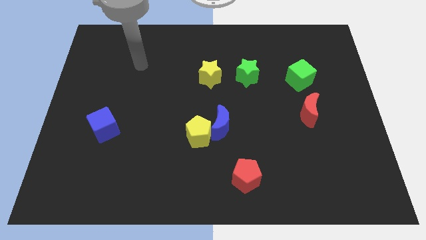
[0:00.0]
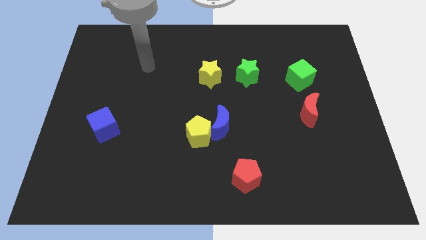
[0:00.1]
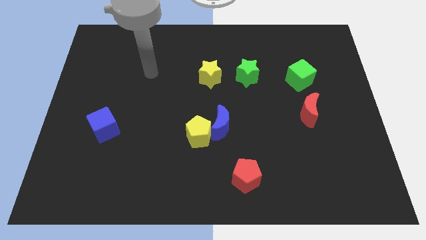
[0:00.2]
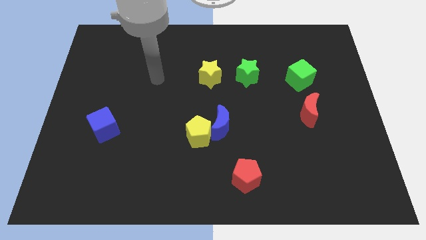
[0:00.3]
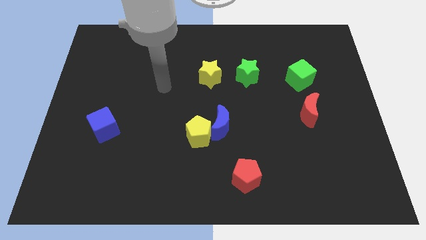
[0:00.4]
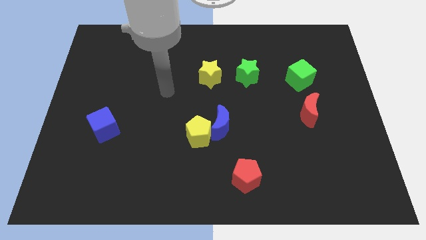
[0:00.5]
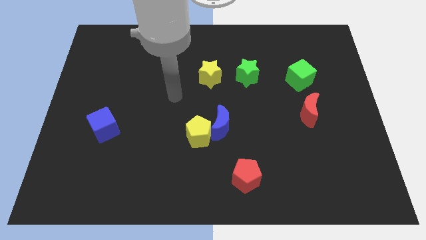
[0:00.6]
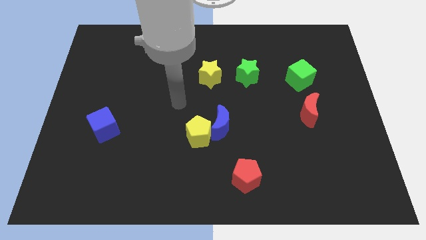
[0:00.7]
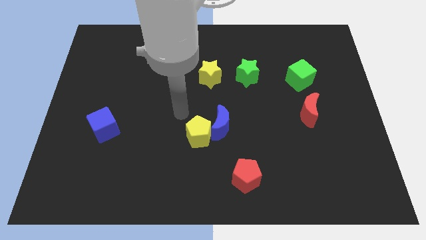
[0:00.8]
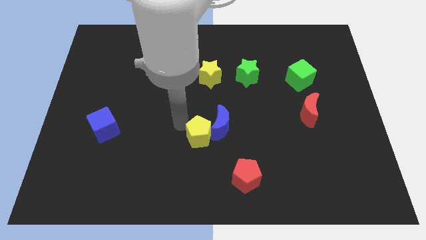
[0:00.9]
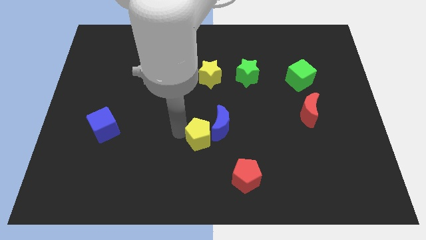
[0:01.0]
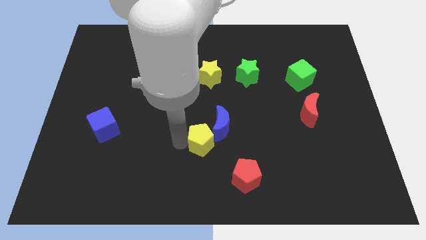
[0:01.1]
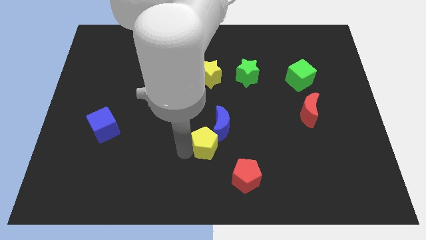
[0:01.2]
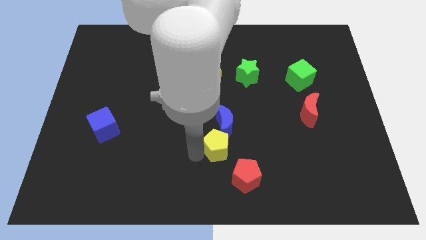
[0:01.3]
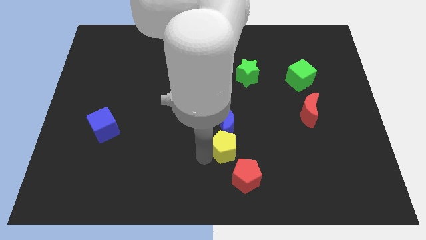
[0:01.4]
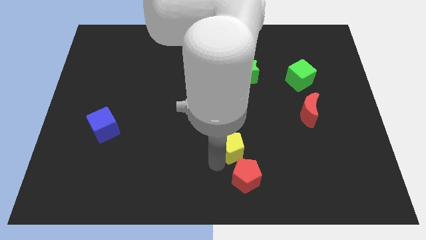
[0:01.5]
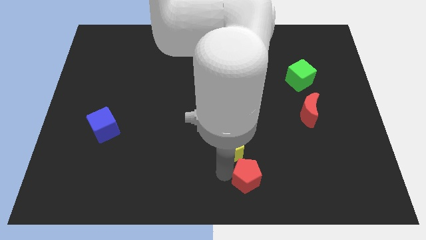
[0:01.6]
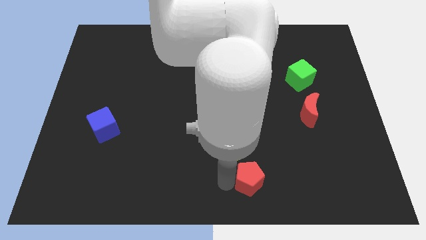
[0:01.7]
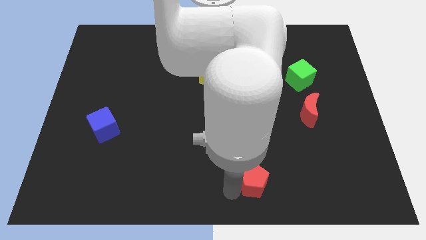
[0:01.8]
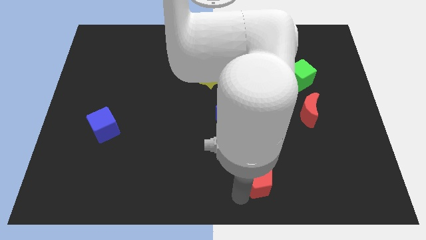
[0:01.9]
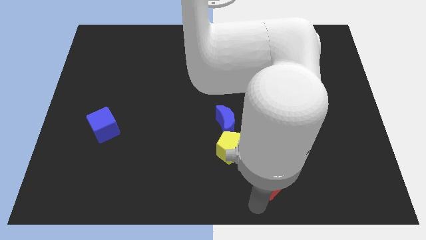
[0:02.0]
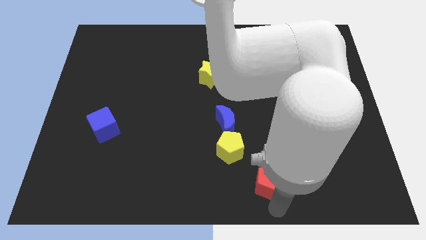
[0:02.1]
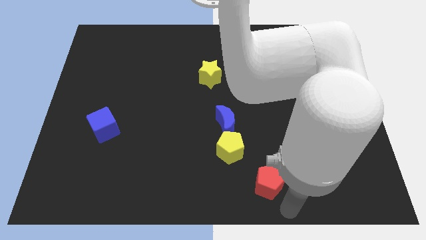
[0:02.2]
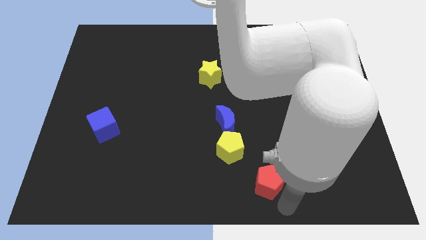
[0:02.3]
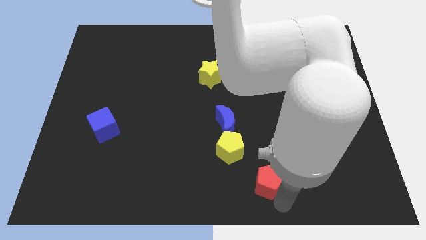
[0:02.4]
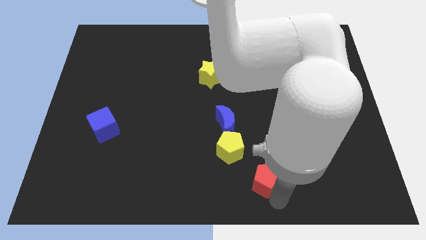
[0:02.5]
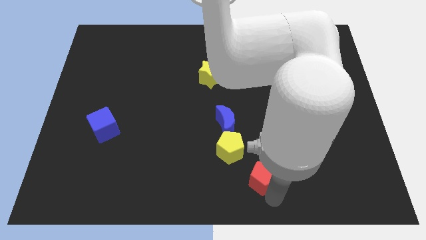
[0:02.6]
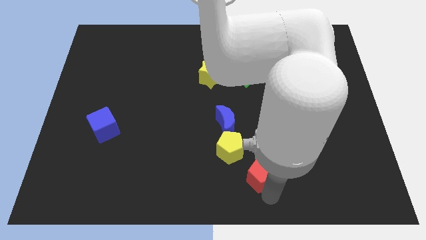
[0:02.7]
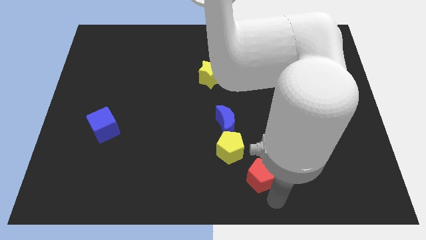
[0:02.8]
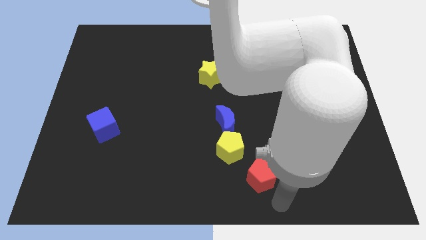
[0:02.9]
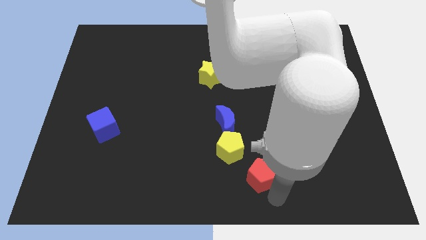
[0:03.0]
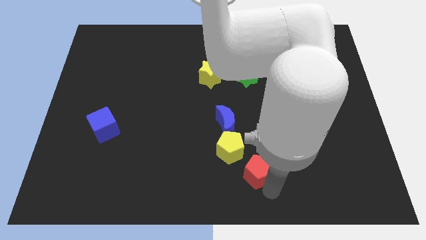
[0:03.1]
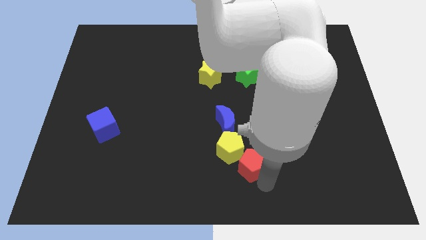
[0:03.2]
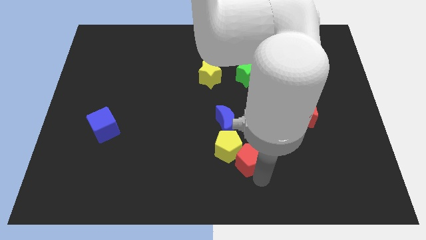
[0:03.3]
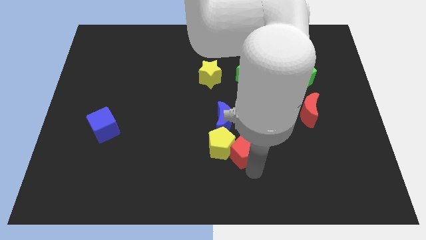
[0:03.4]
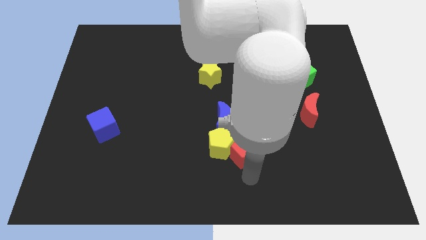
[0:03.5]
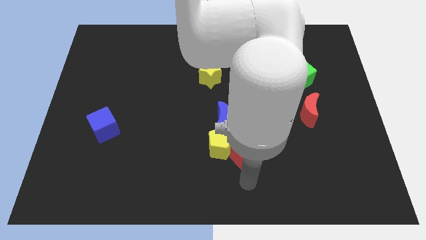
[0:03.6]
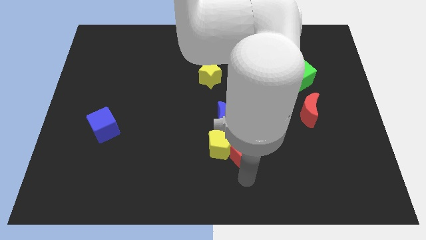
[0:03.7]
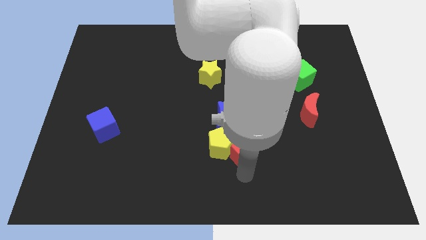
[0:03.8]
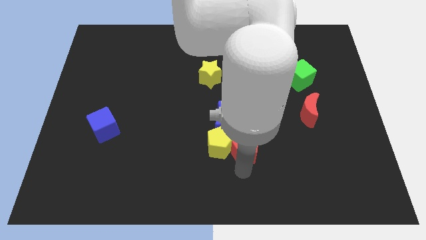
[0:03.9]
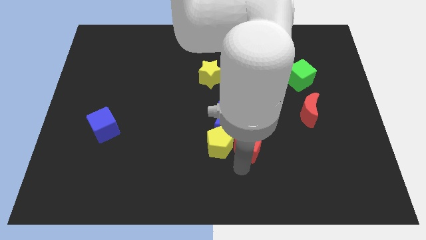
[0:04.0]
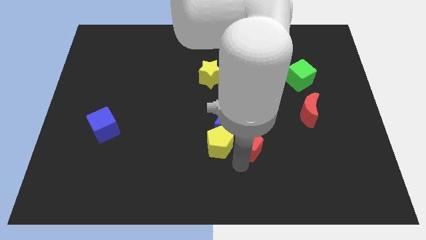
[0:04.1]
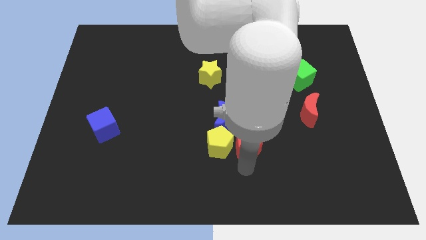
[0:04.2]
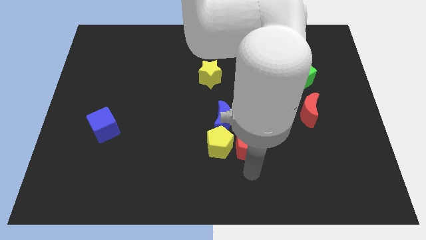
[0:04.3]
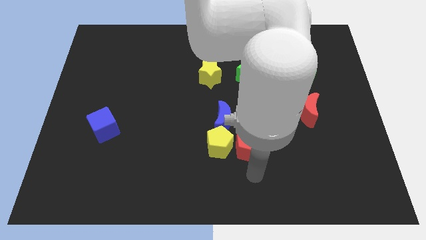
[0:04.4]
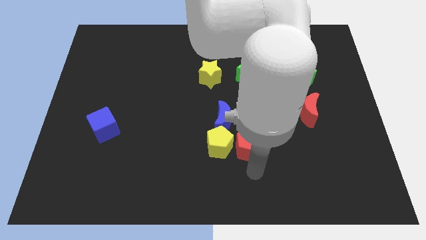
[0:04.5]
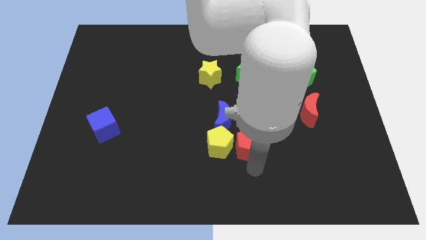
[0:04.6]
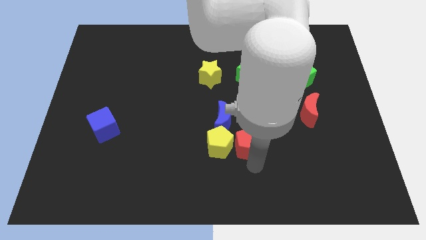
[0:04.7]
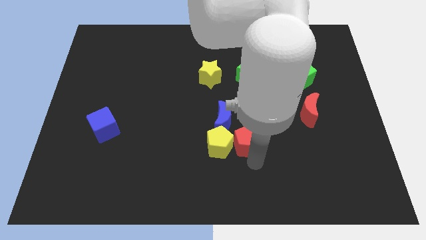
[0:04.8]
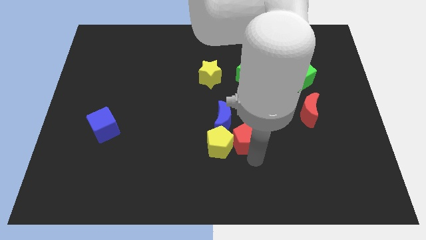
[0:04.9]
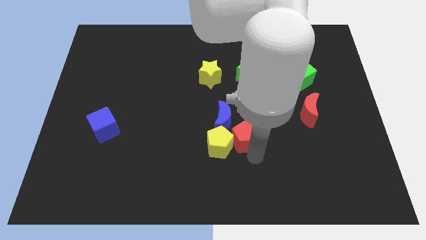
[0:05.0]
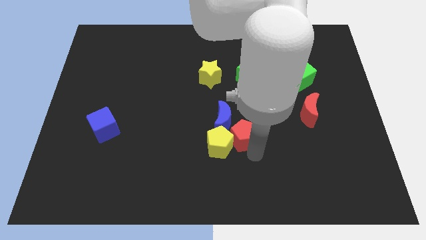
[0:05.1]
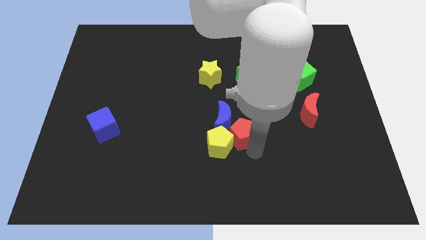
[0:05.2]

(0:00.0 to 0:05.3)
slide the red pentagon to the center of the board

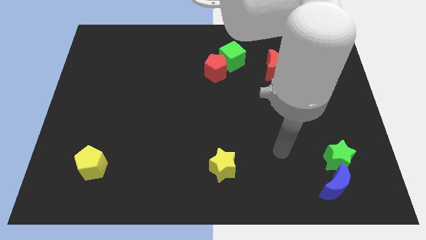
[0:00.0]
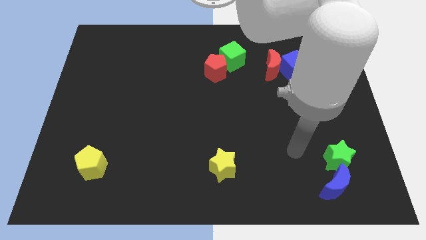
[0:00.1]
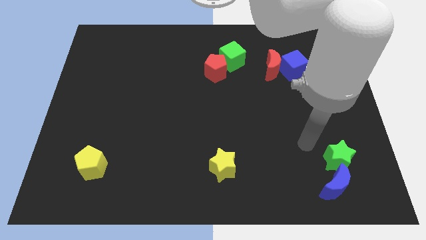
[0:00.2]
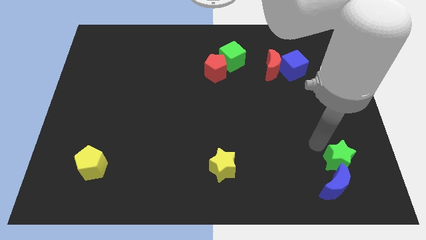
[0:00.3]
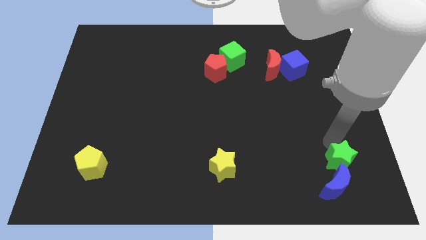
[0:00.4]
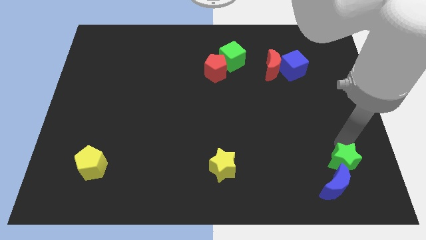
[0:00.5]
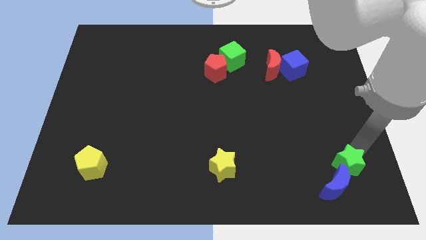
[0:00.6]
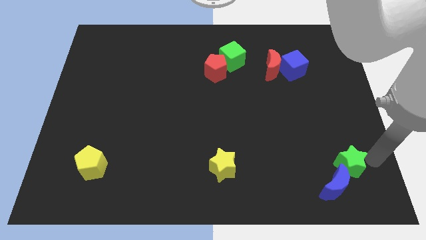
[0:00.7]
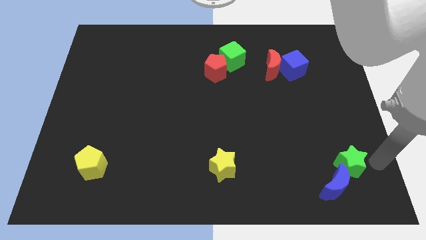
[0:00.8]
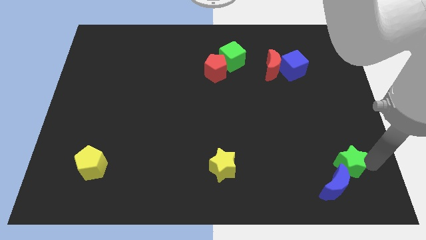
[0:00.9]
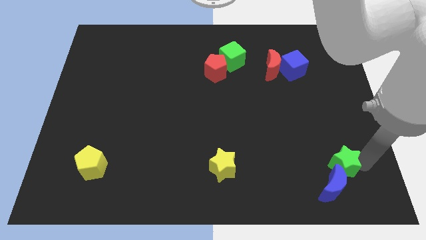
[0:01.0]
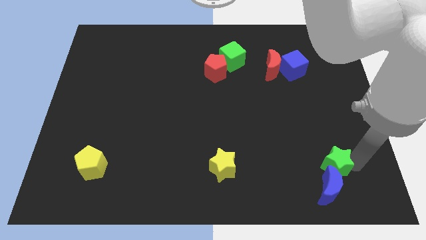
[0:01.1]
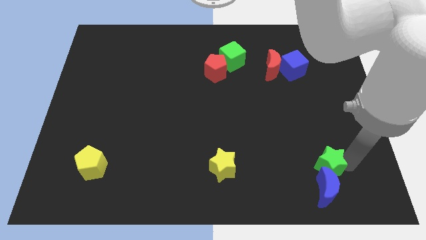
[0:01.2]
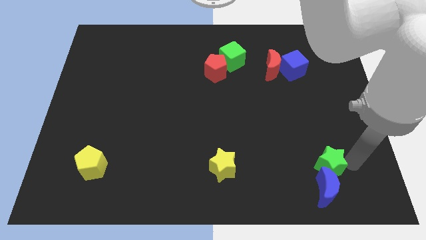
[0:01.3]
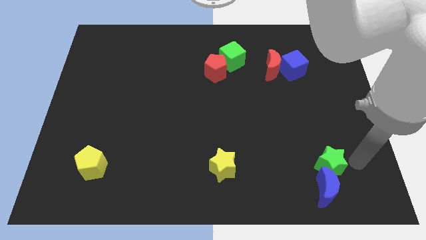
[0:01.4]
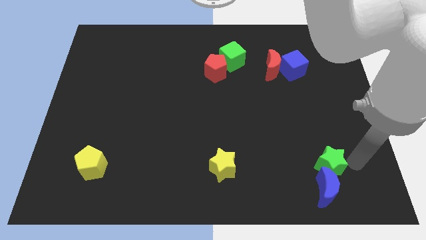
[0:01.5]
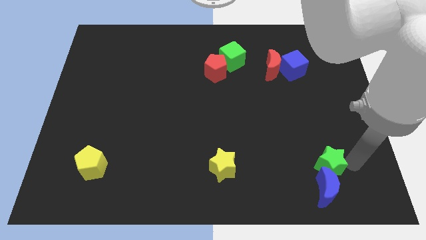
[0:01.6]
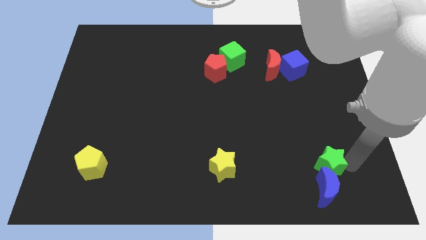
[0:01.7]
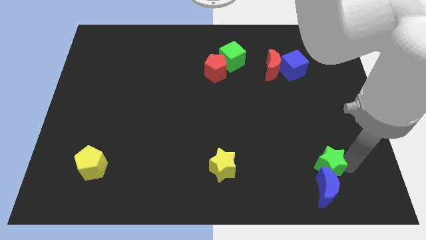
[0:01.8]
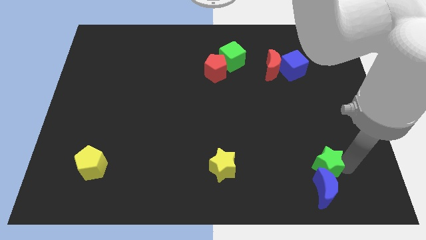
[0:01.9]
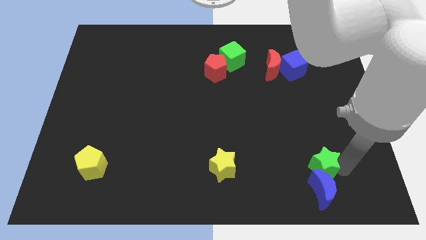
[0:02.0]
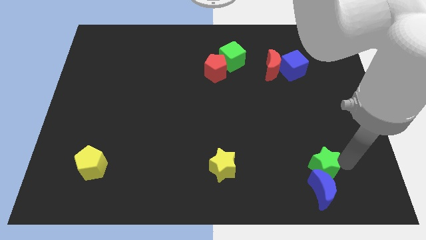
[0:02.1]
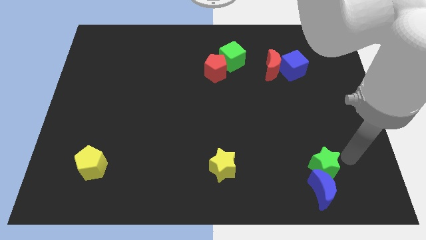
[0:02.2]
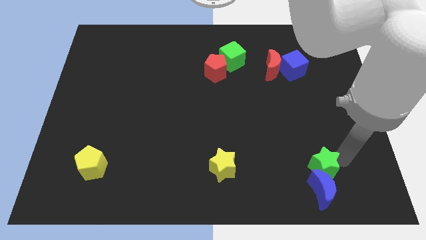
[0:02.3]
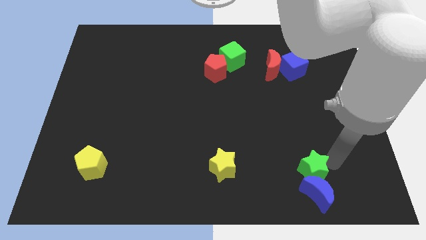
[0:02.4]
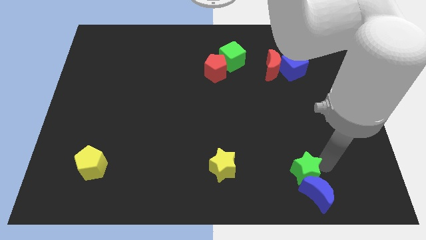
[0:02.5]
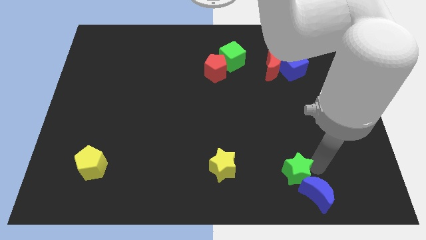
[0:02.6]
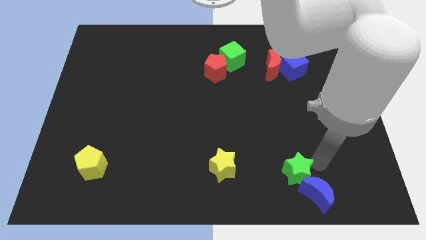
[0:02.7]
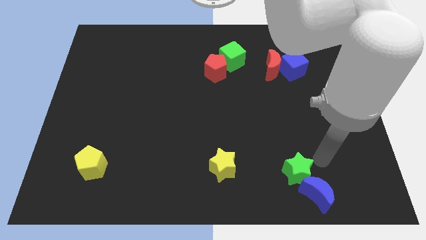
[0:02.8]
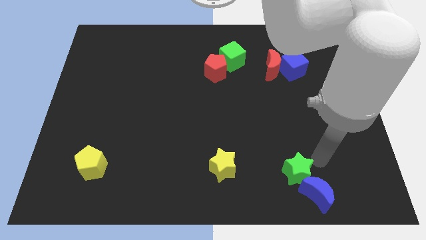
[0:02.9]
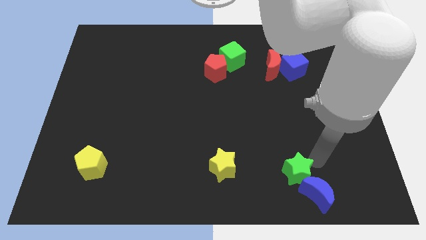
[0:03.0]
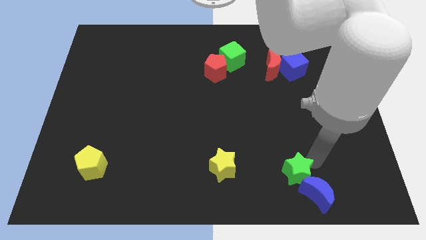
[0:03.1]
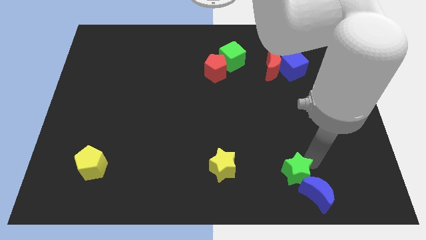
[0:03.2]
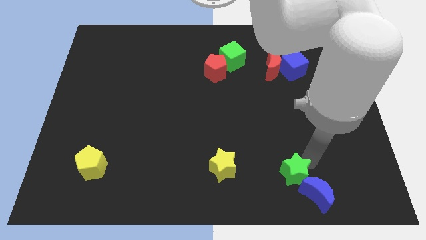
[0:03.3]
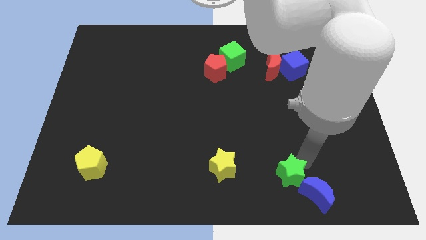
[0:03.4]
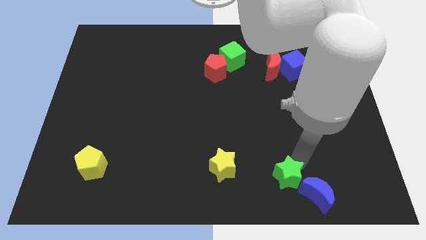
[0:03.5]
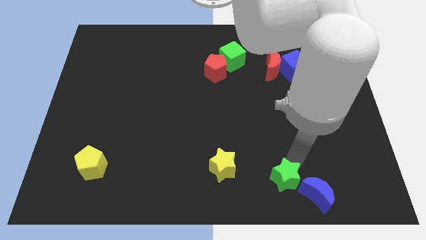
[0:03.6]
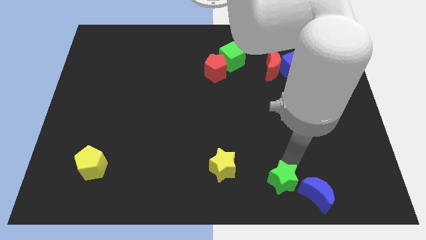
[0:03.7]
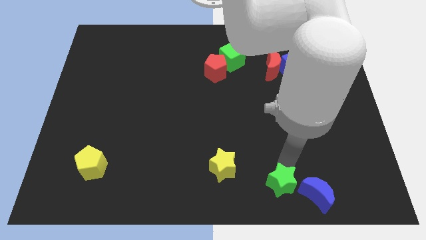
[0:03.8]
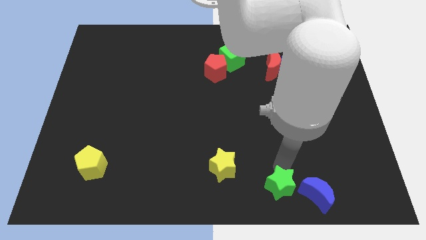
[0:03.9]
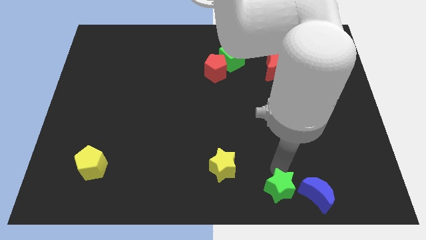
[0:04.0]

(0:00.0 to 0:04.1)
push the green star to the bottom side
